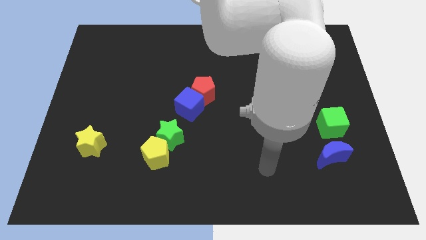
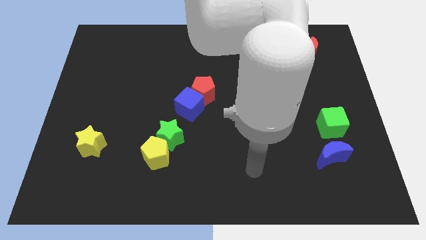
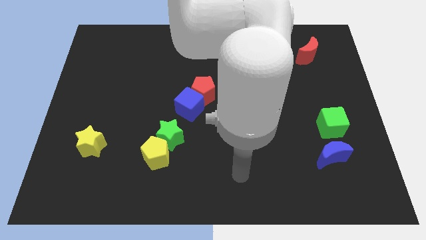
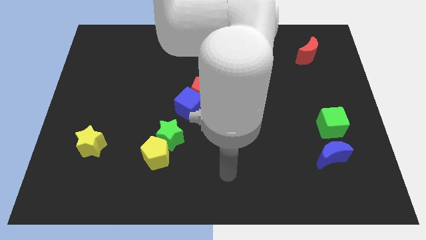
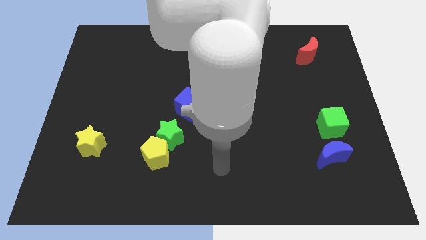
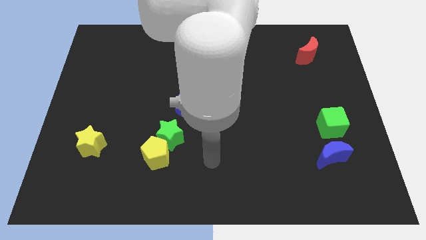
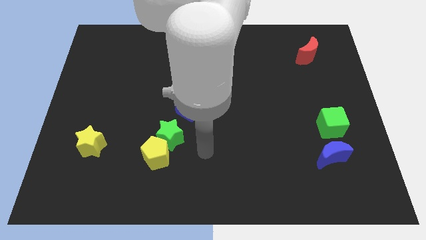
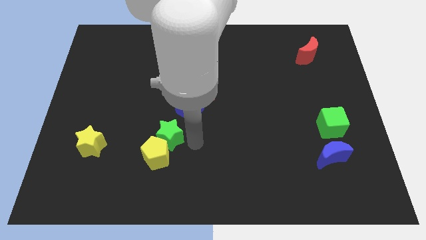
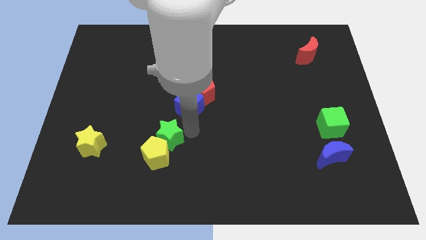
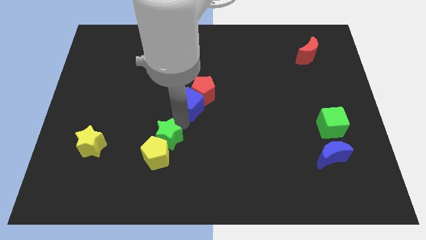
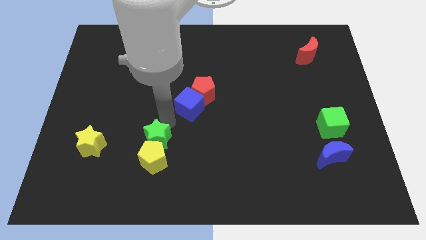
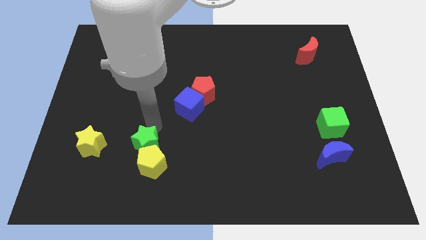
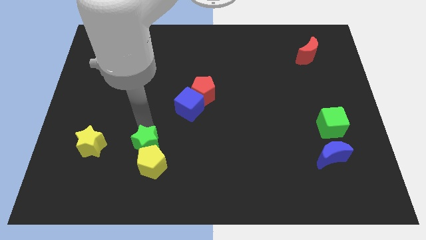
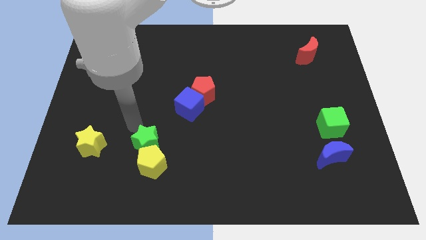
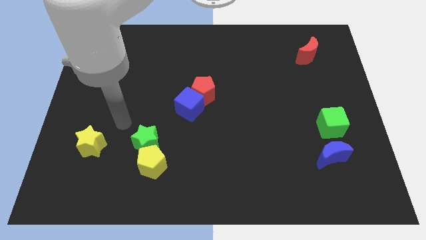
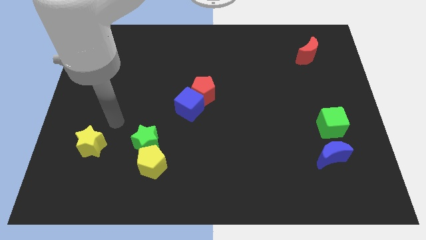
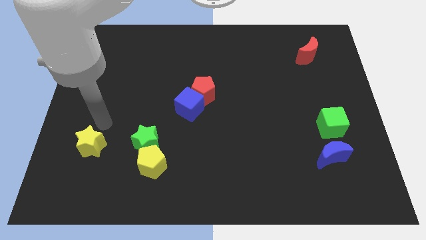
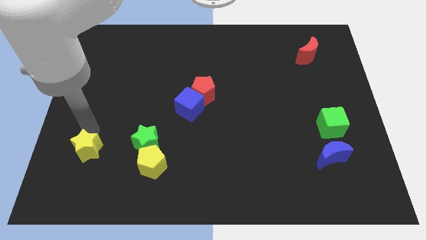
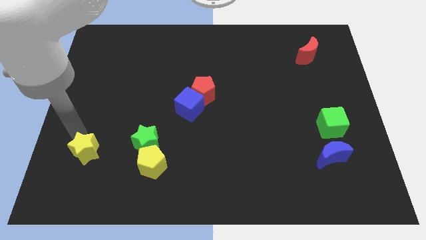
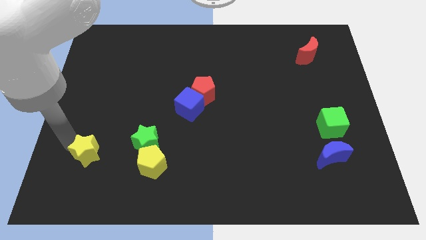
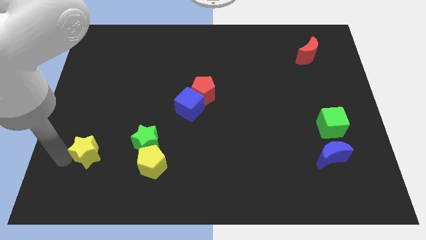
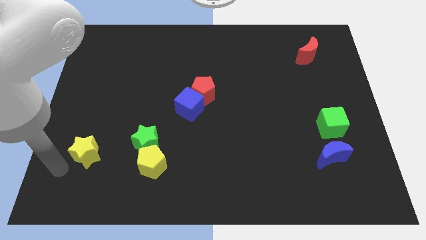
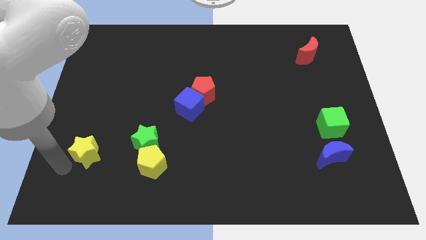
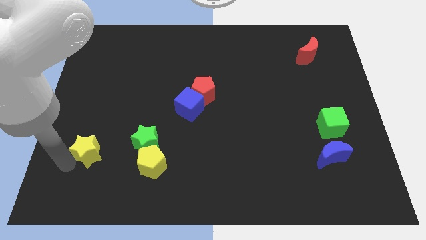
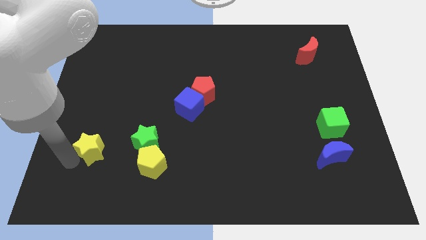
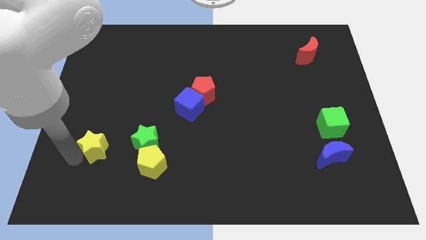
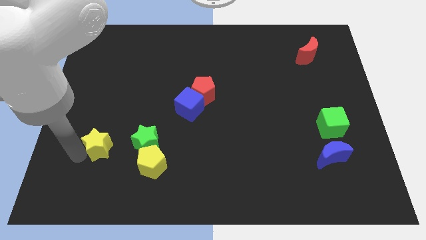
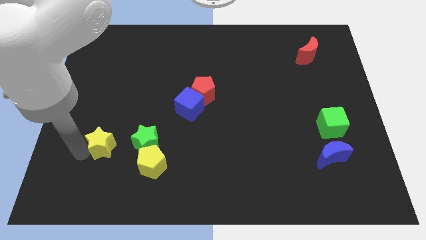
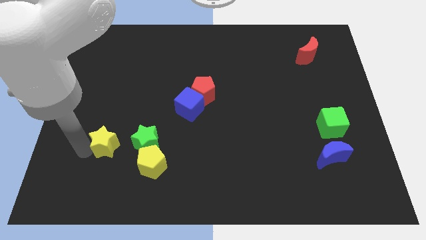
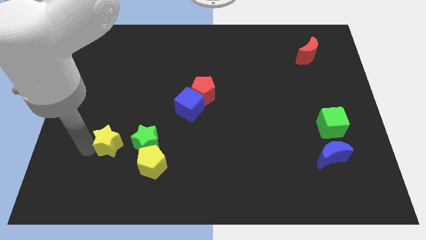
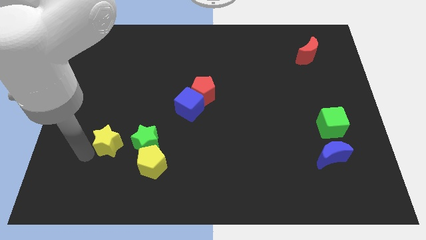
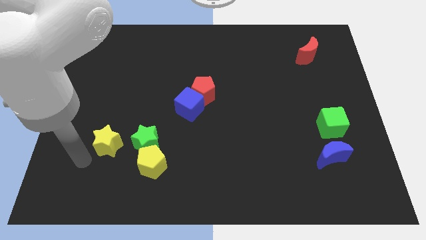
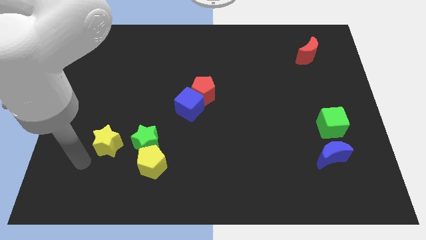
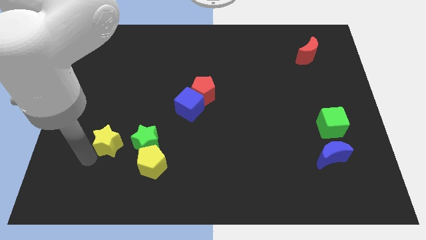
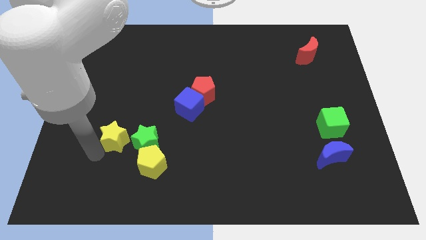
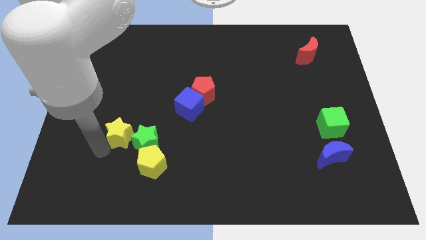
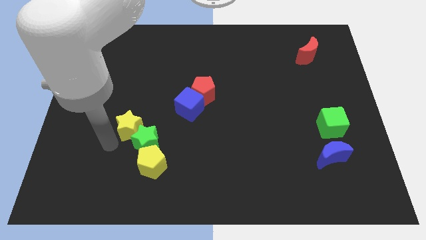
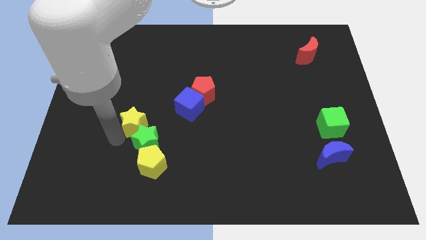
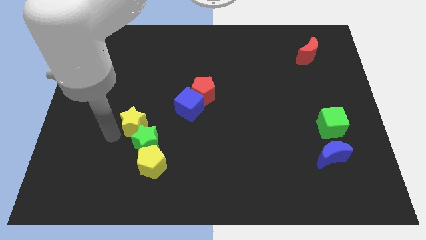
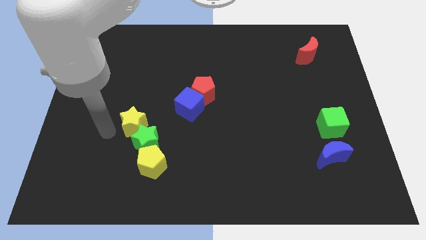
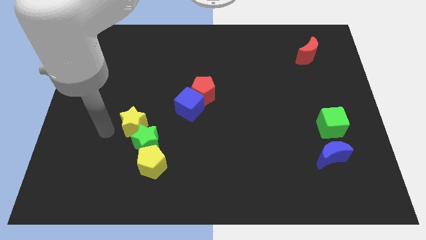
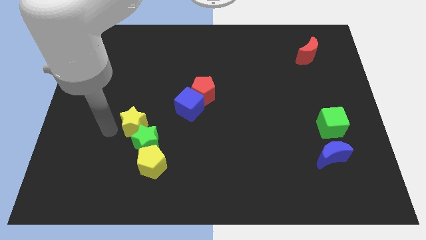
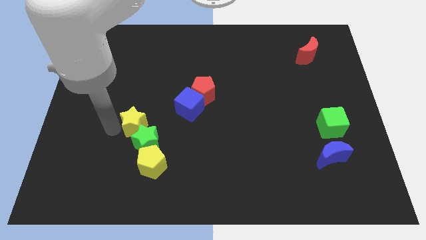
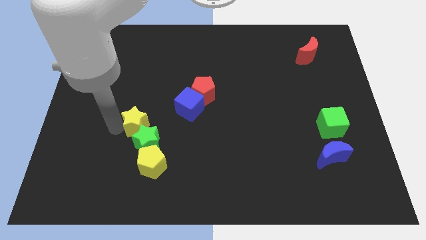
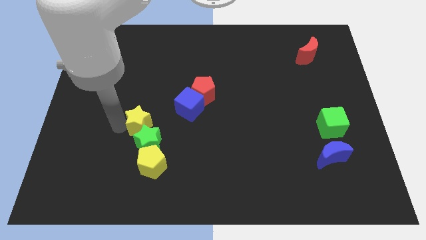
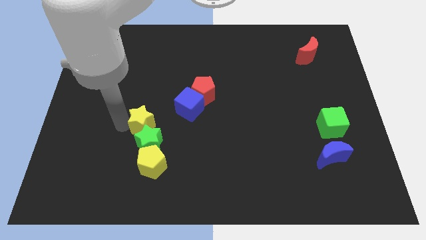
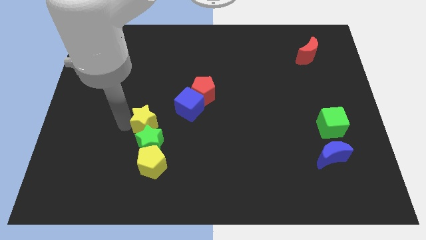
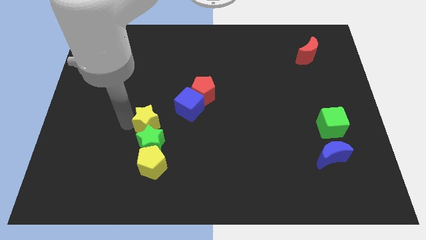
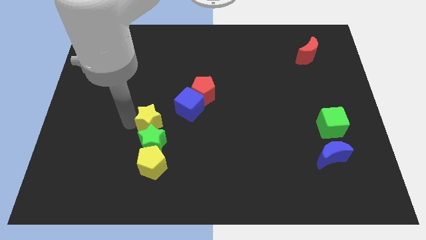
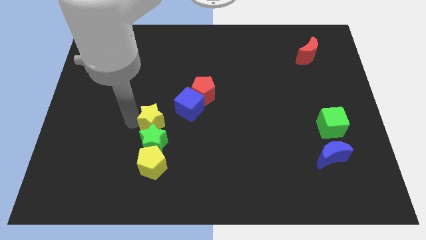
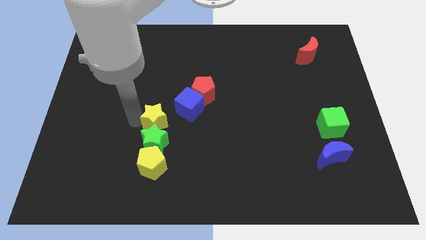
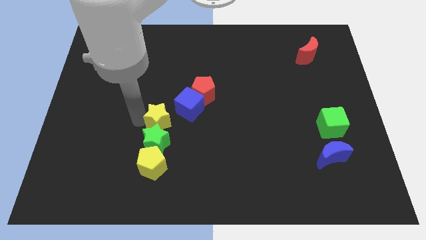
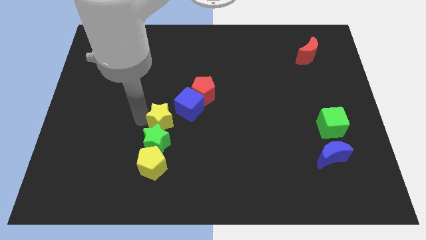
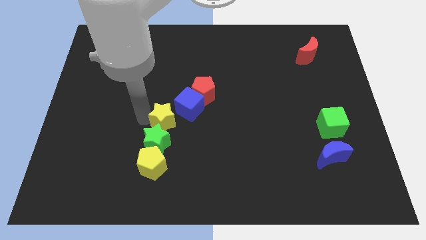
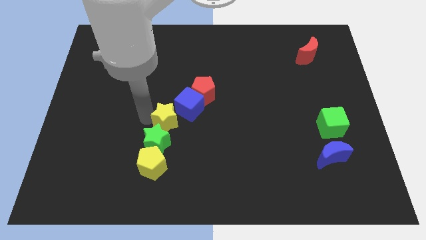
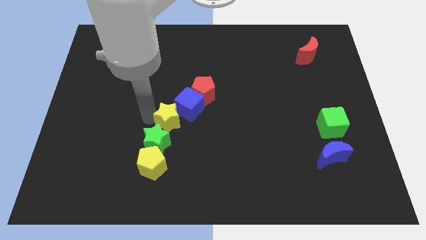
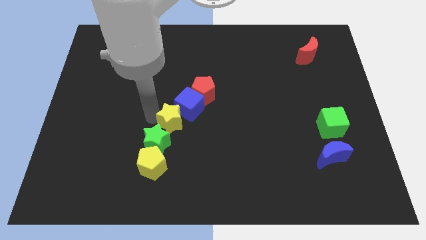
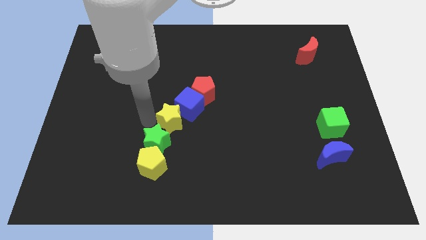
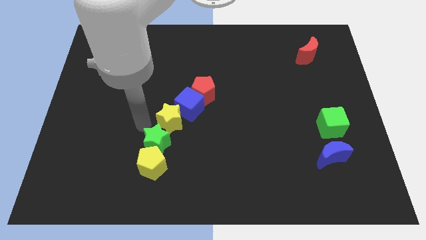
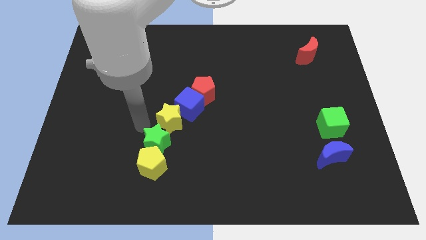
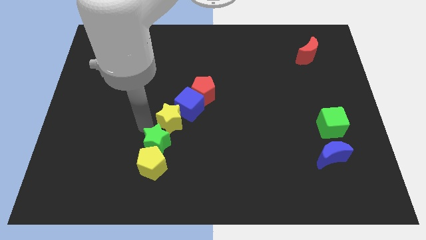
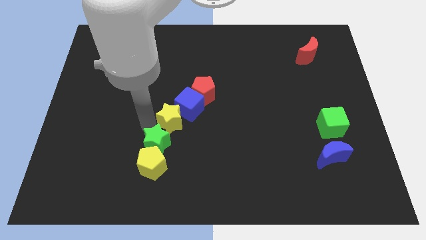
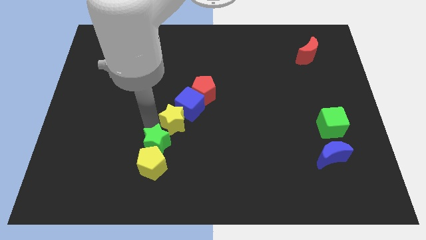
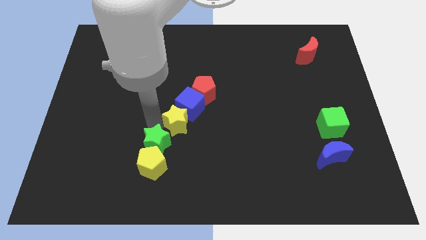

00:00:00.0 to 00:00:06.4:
move the yellow star to the top right of the yellow pentagon
